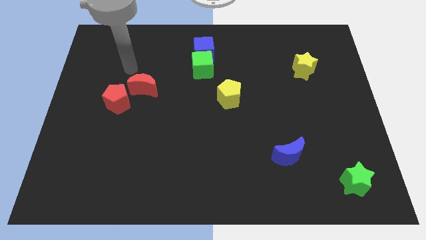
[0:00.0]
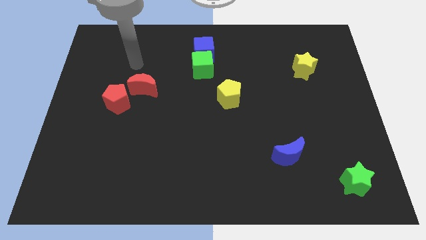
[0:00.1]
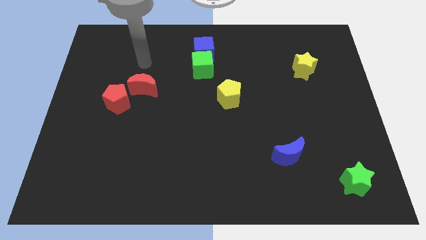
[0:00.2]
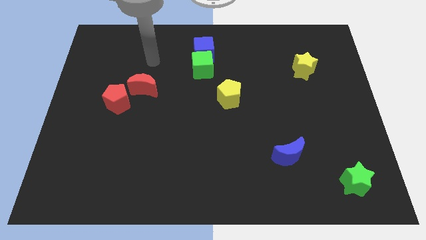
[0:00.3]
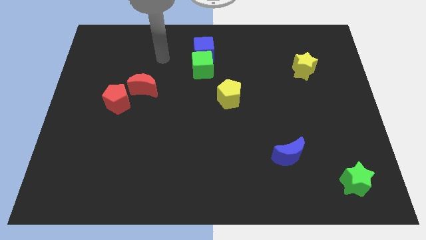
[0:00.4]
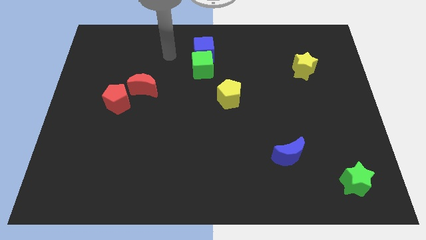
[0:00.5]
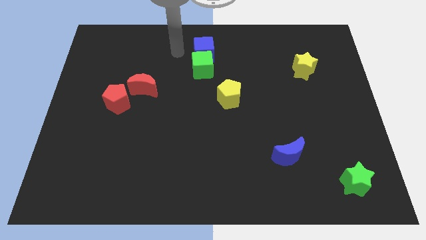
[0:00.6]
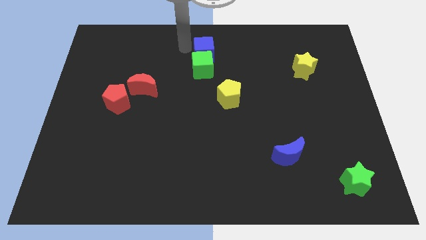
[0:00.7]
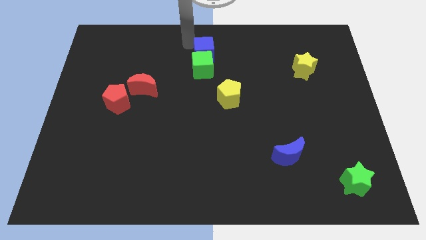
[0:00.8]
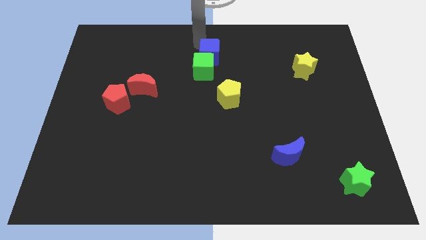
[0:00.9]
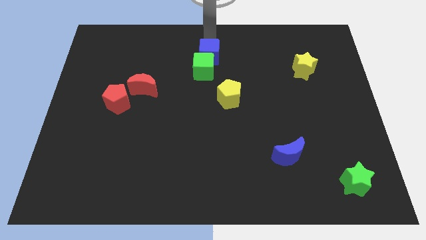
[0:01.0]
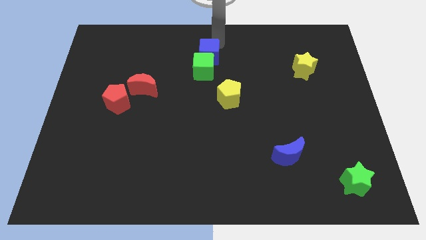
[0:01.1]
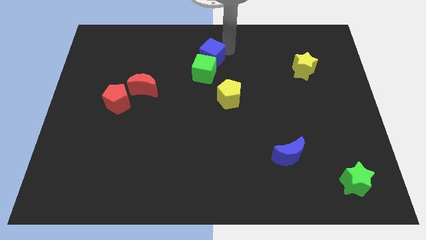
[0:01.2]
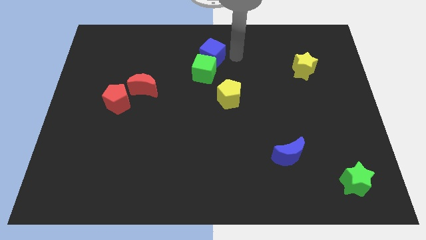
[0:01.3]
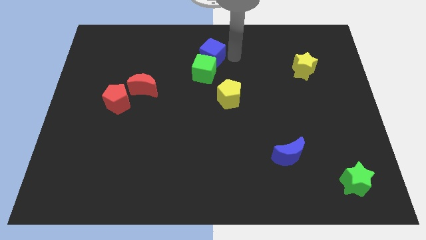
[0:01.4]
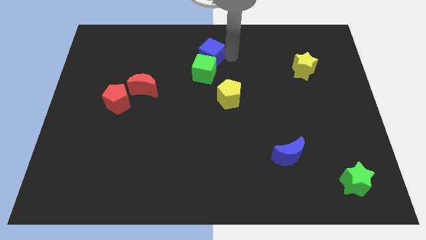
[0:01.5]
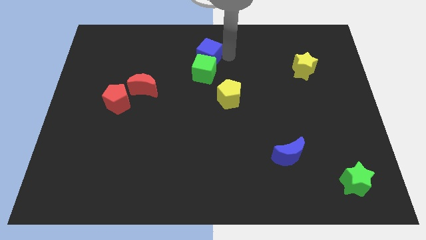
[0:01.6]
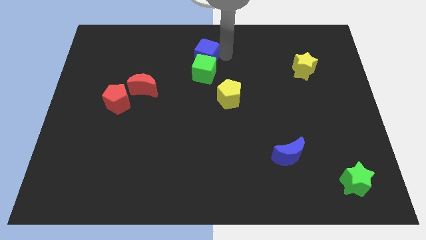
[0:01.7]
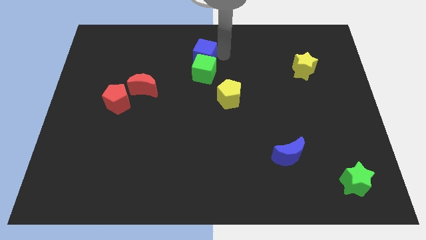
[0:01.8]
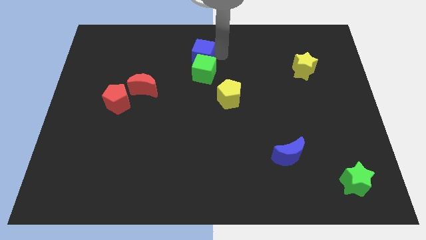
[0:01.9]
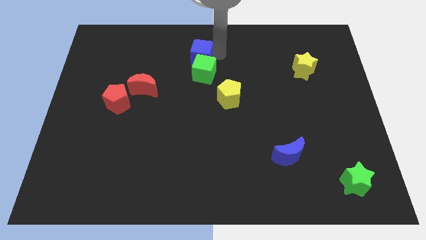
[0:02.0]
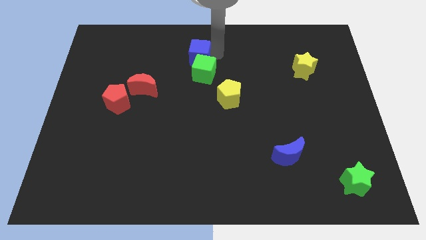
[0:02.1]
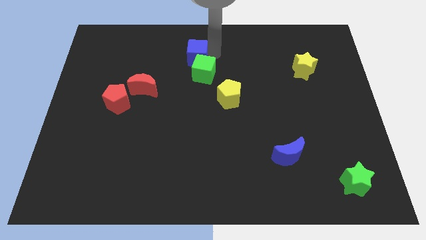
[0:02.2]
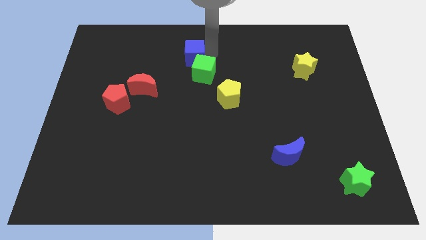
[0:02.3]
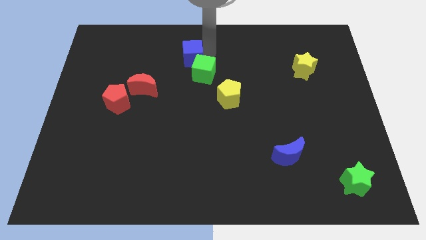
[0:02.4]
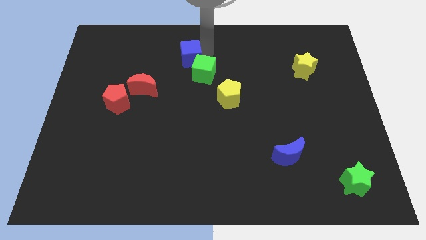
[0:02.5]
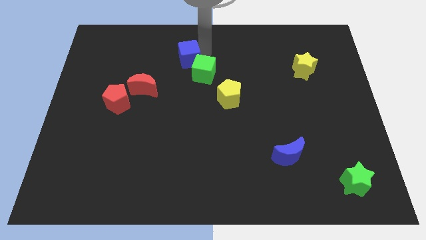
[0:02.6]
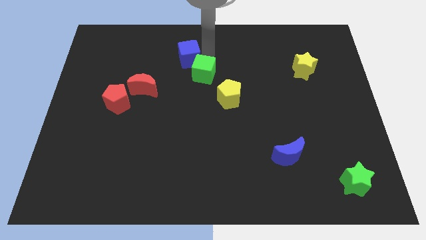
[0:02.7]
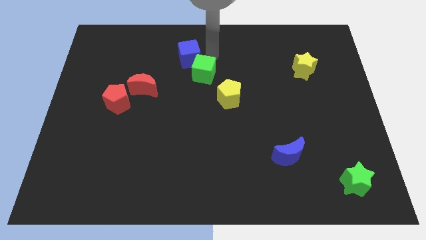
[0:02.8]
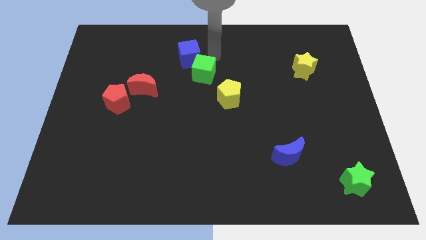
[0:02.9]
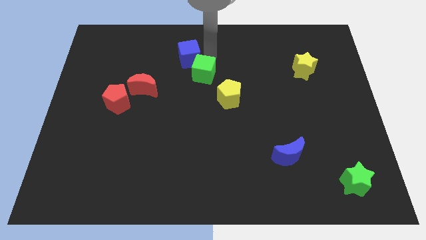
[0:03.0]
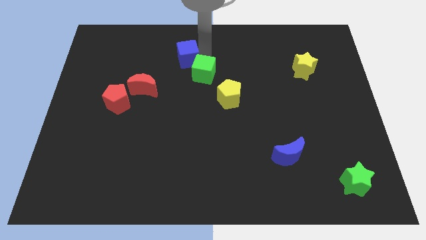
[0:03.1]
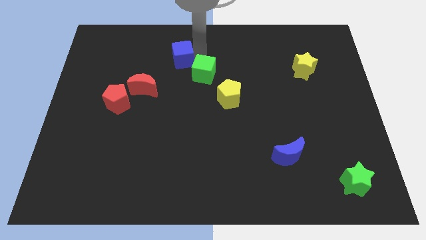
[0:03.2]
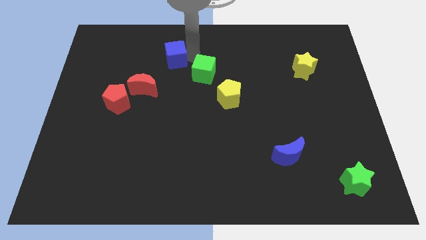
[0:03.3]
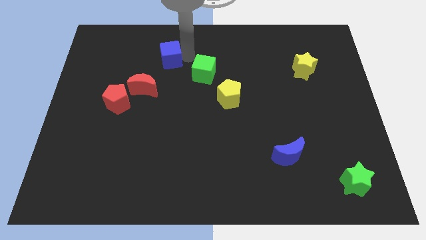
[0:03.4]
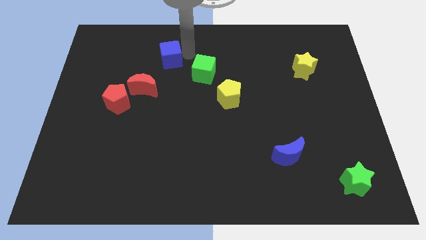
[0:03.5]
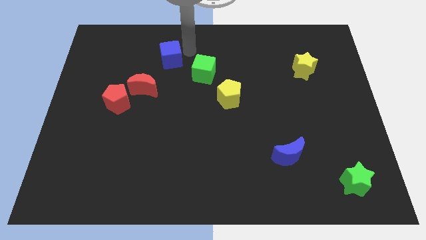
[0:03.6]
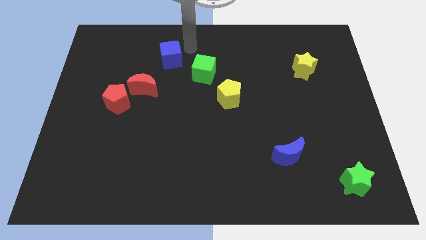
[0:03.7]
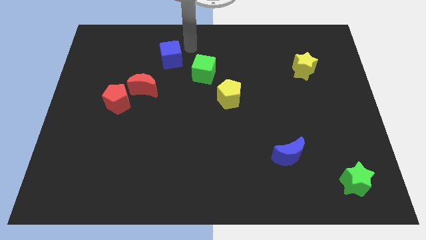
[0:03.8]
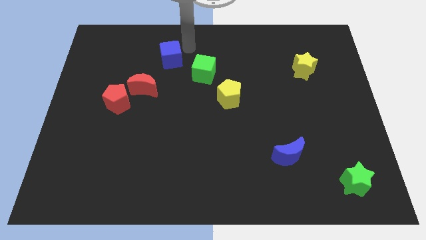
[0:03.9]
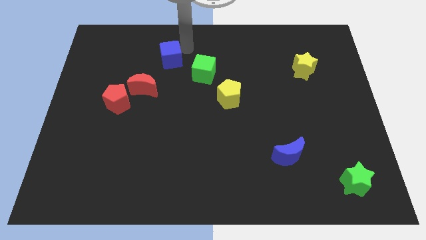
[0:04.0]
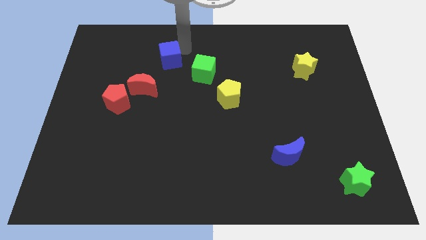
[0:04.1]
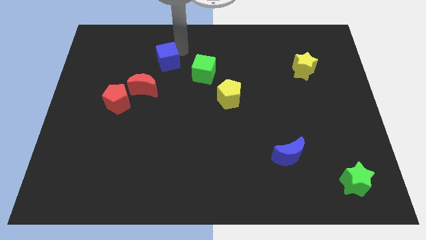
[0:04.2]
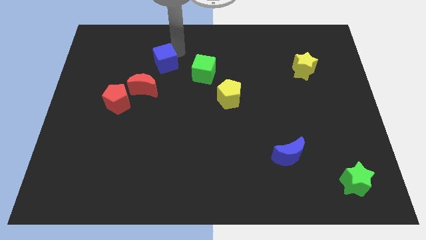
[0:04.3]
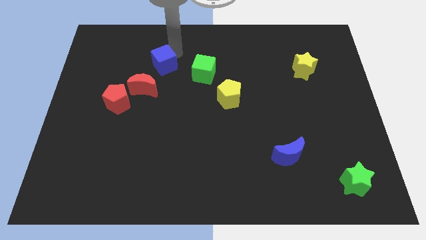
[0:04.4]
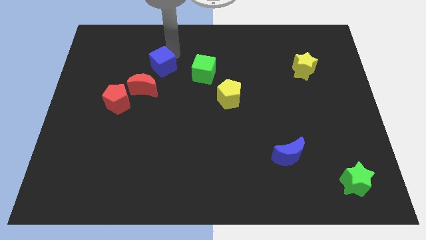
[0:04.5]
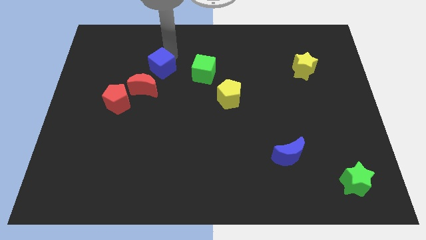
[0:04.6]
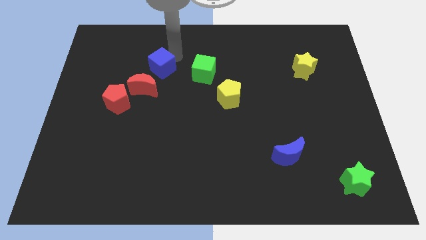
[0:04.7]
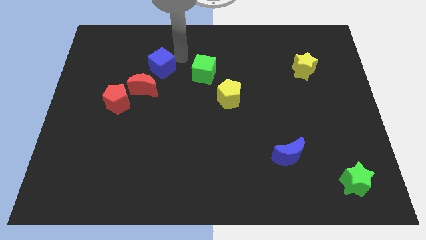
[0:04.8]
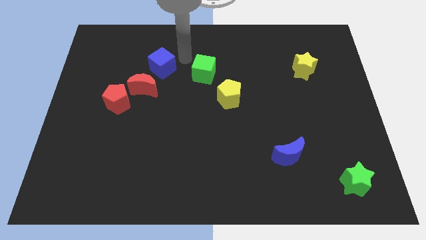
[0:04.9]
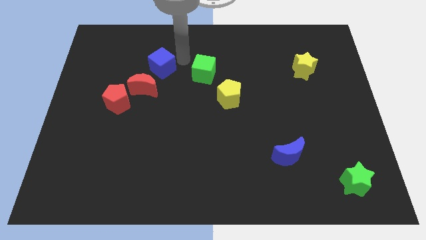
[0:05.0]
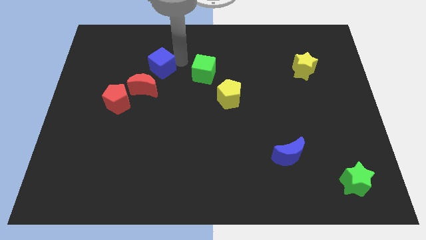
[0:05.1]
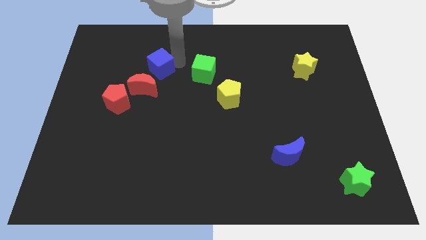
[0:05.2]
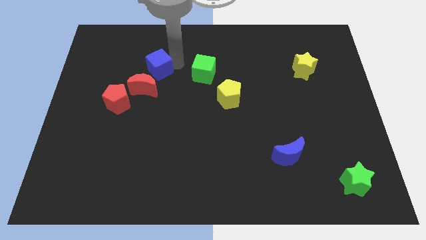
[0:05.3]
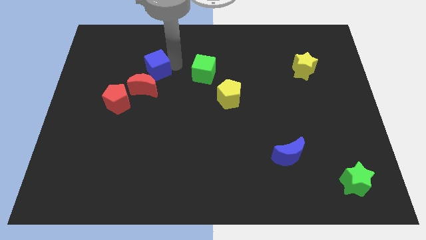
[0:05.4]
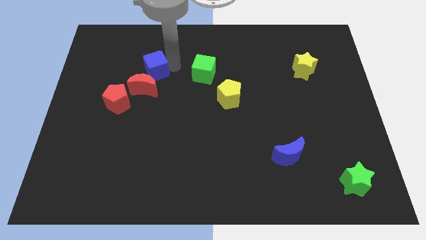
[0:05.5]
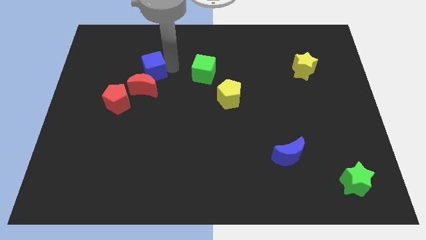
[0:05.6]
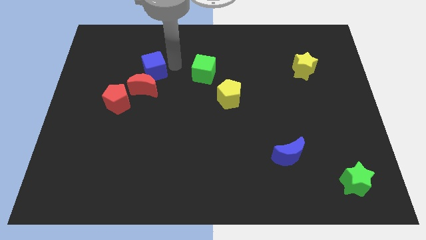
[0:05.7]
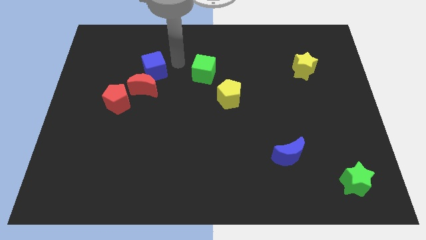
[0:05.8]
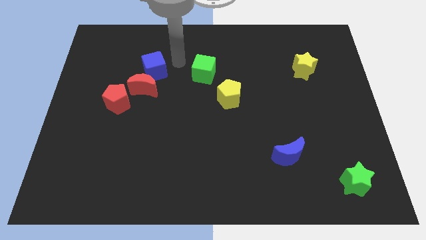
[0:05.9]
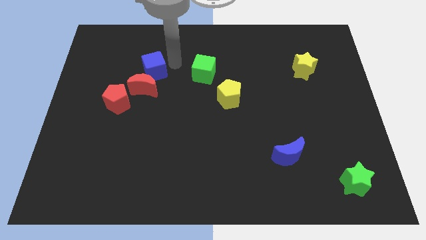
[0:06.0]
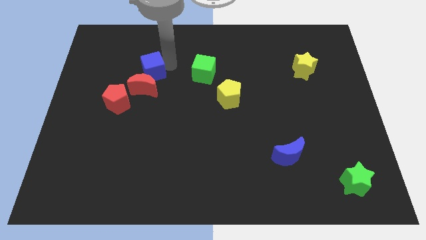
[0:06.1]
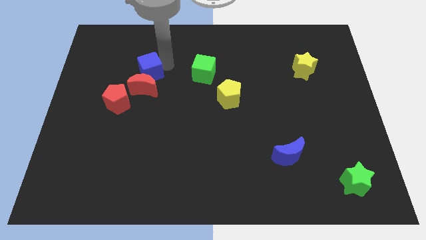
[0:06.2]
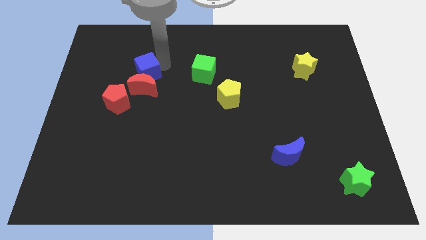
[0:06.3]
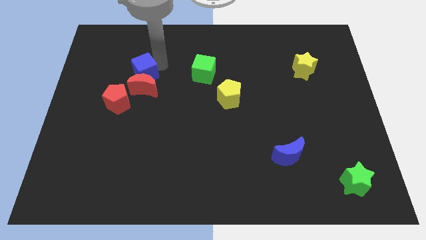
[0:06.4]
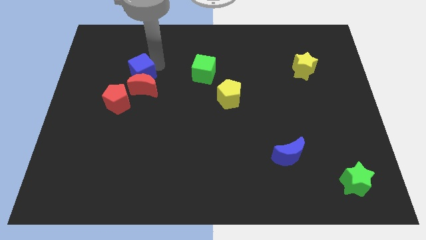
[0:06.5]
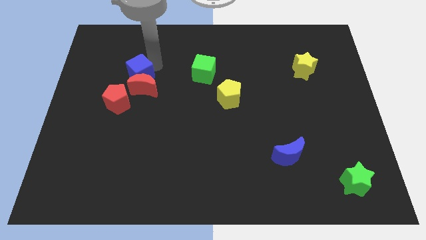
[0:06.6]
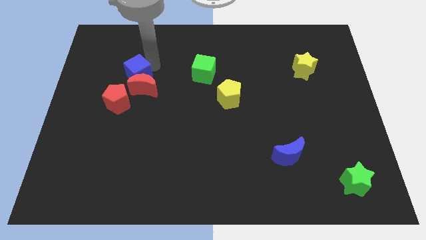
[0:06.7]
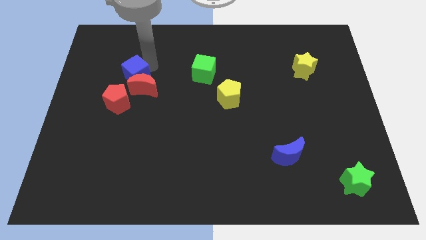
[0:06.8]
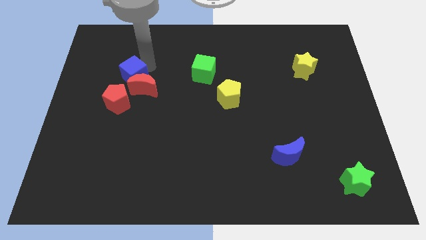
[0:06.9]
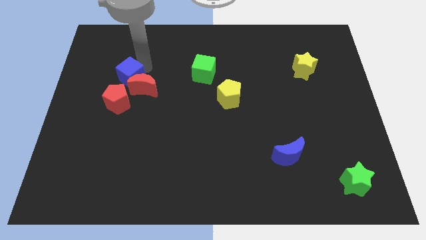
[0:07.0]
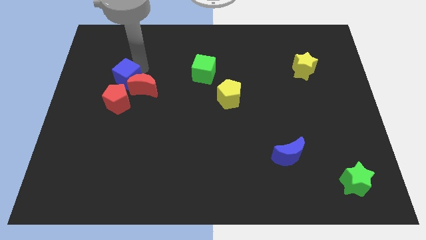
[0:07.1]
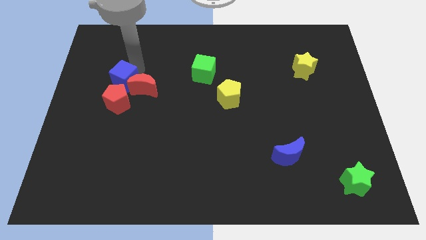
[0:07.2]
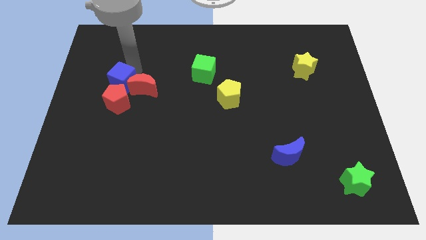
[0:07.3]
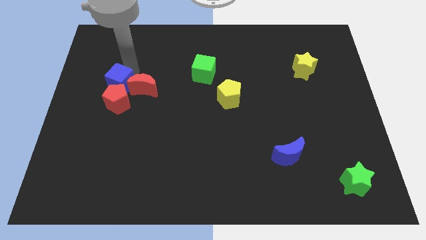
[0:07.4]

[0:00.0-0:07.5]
move the blue cube towards the red pentagon
